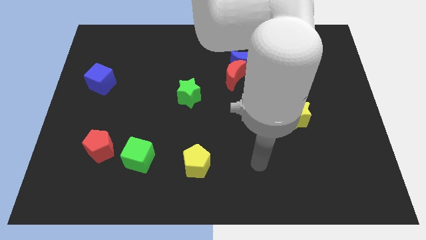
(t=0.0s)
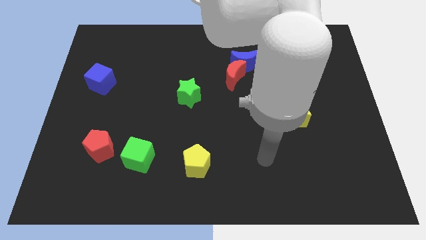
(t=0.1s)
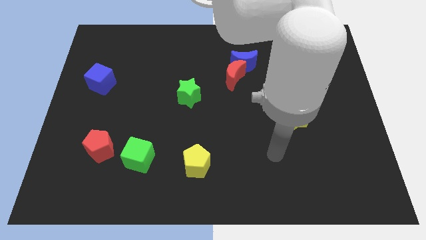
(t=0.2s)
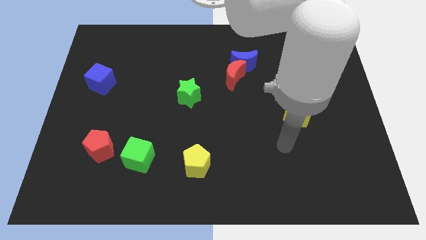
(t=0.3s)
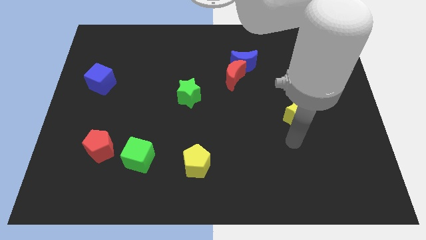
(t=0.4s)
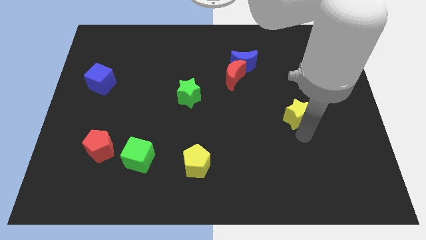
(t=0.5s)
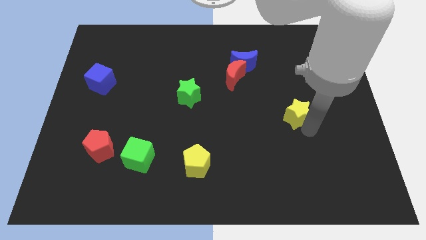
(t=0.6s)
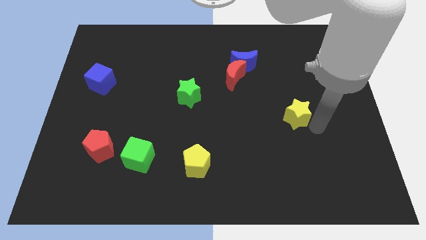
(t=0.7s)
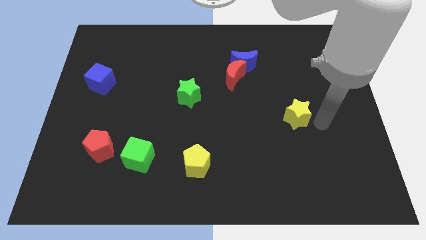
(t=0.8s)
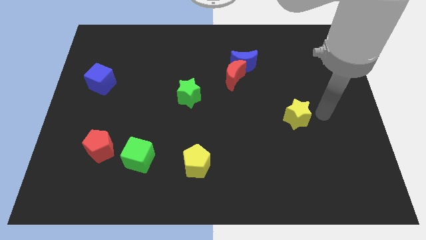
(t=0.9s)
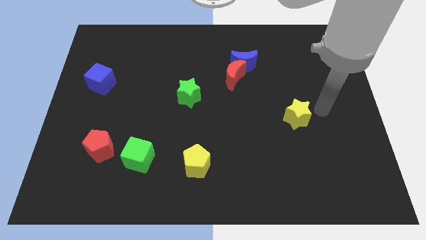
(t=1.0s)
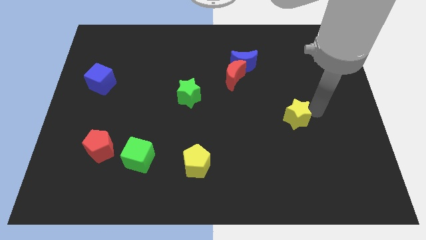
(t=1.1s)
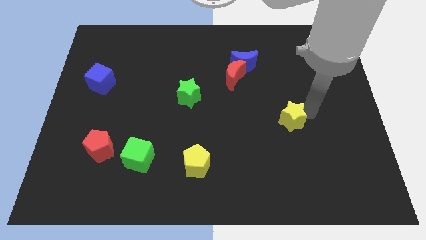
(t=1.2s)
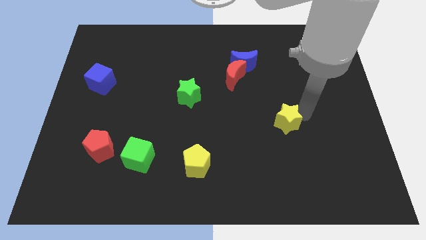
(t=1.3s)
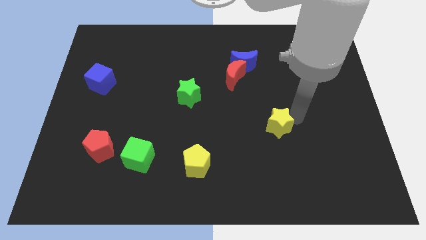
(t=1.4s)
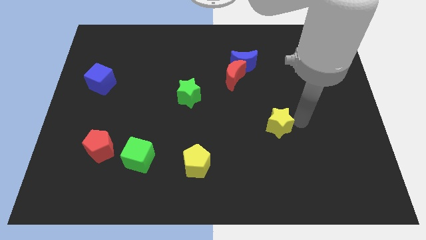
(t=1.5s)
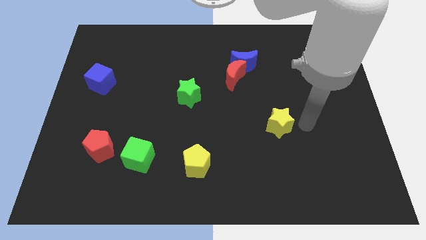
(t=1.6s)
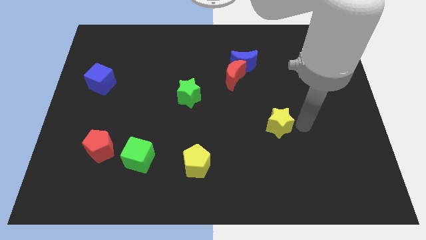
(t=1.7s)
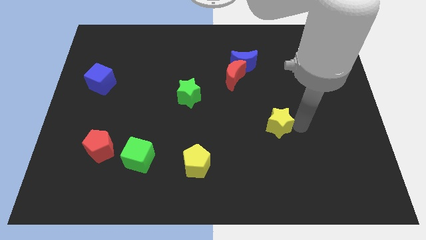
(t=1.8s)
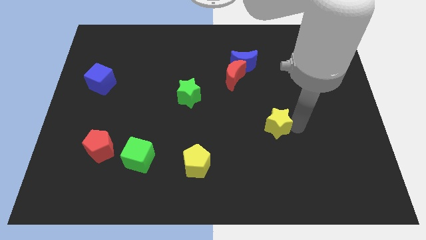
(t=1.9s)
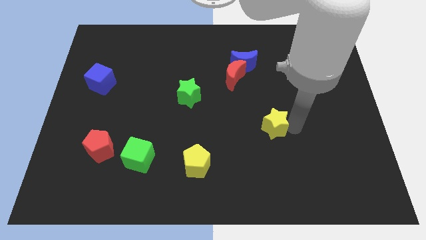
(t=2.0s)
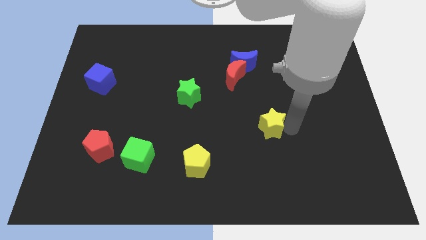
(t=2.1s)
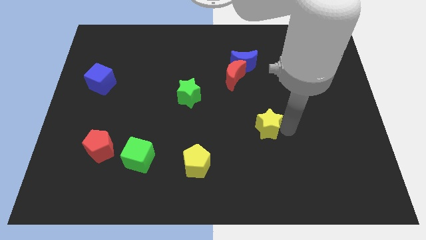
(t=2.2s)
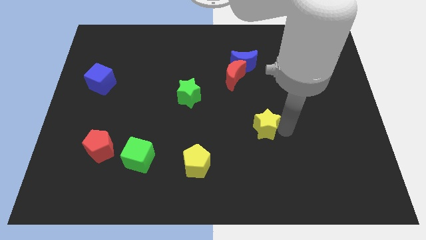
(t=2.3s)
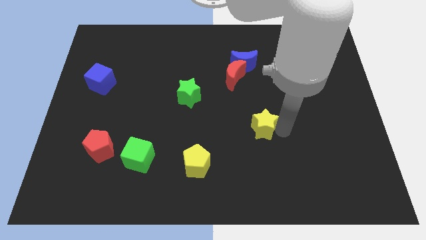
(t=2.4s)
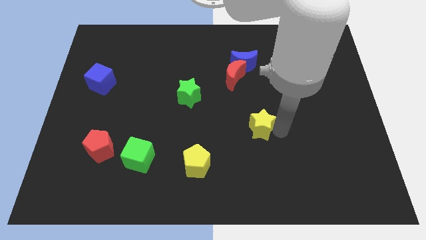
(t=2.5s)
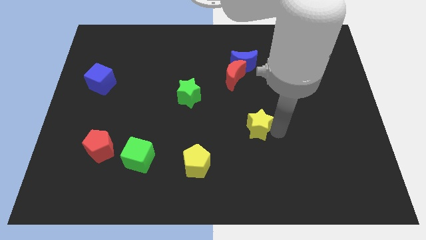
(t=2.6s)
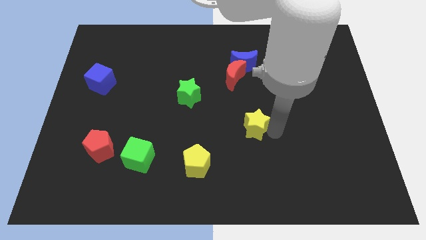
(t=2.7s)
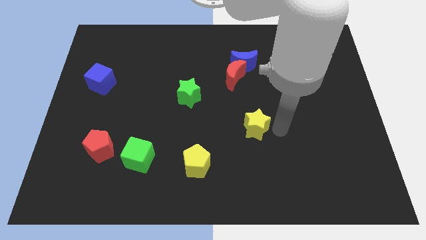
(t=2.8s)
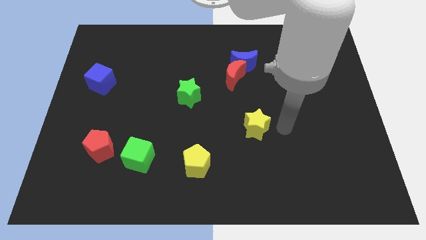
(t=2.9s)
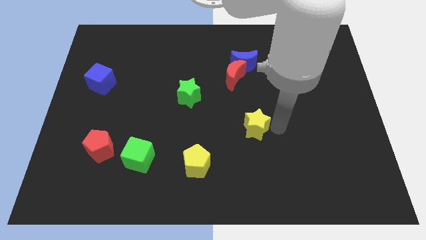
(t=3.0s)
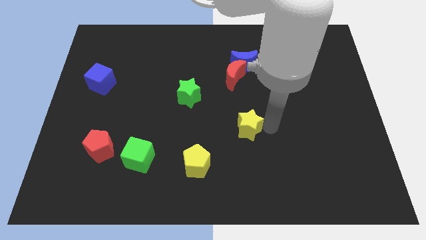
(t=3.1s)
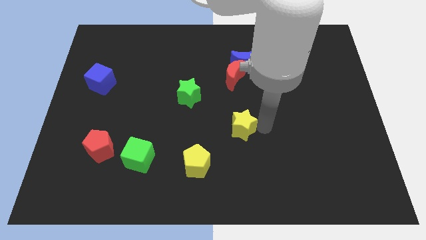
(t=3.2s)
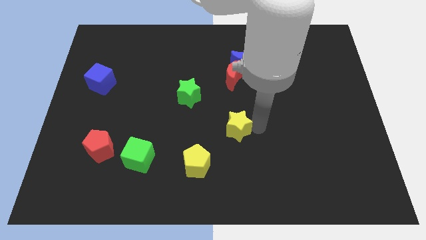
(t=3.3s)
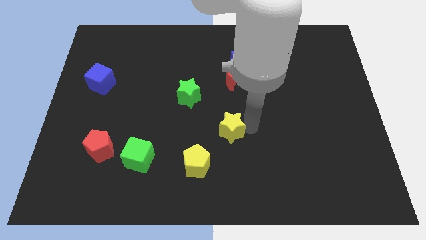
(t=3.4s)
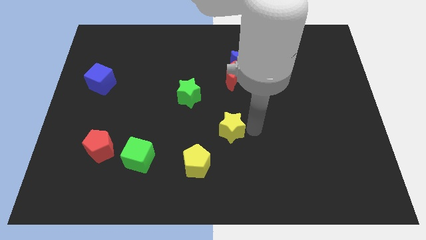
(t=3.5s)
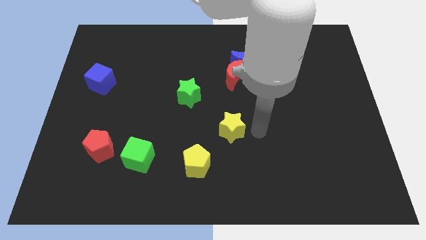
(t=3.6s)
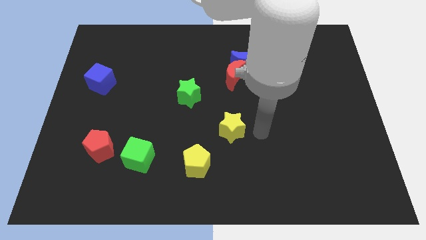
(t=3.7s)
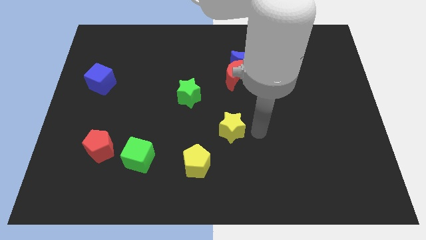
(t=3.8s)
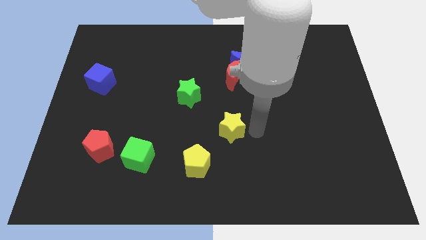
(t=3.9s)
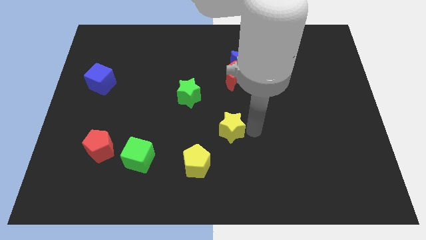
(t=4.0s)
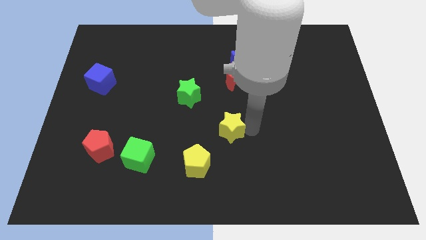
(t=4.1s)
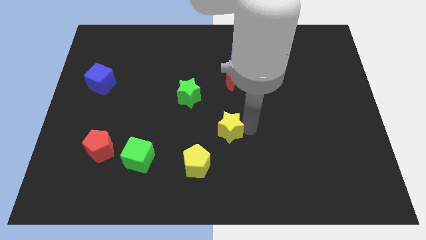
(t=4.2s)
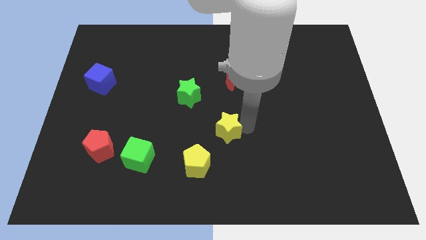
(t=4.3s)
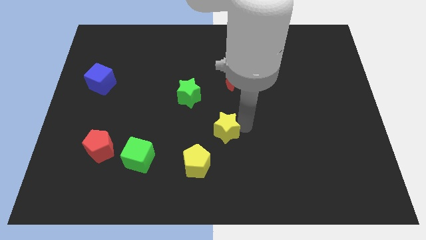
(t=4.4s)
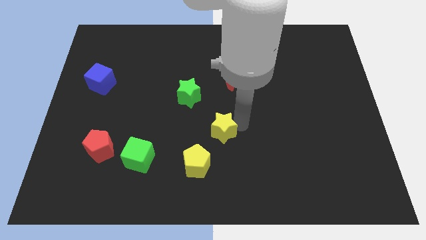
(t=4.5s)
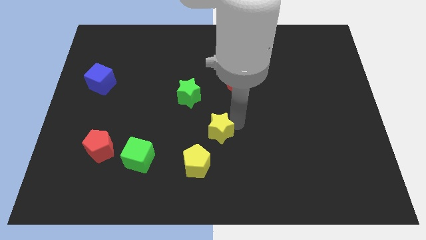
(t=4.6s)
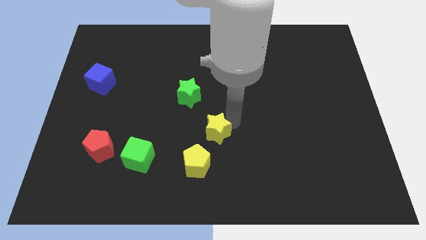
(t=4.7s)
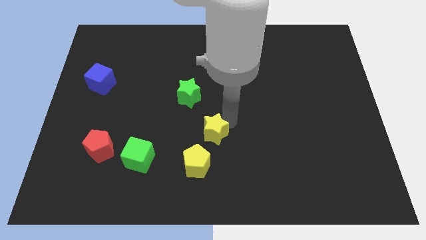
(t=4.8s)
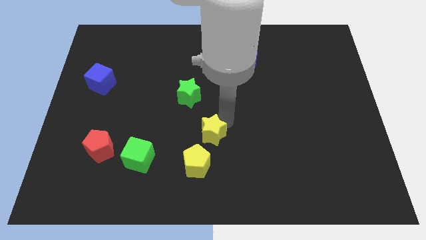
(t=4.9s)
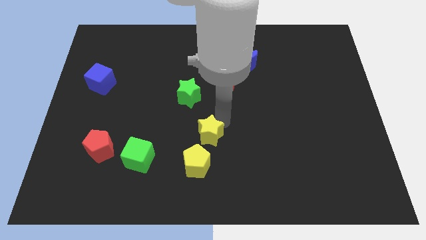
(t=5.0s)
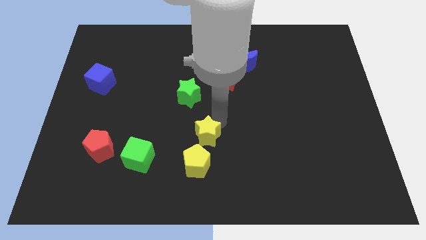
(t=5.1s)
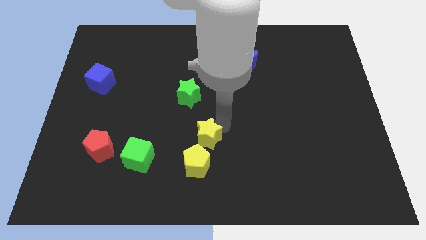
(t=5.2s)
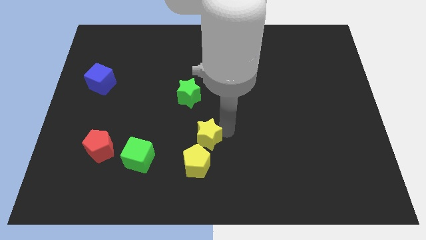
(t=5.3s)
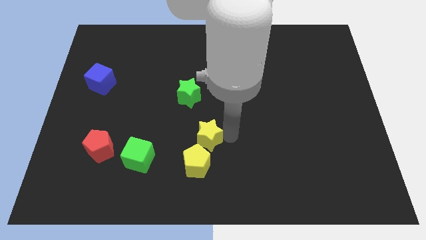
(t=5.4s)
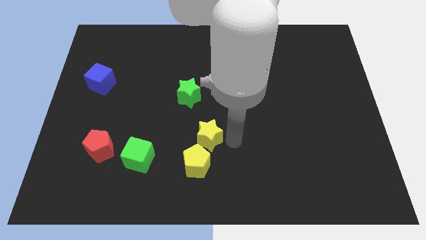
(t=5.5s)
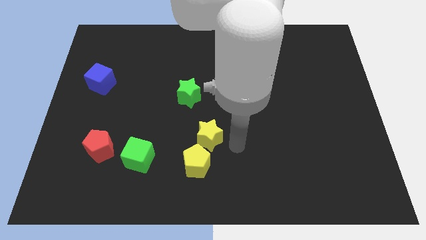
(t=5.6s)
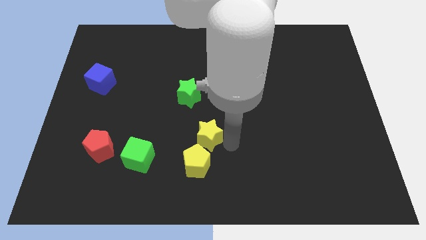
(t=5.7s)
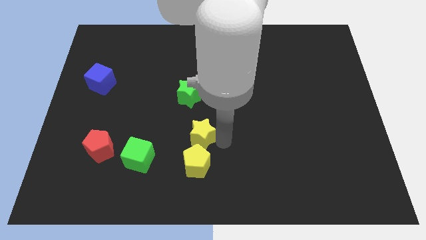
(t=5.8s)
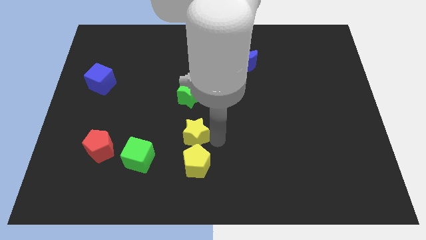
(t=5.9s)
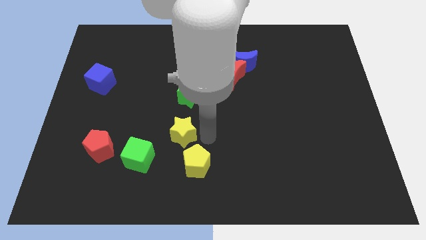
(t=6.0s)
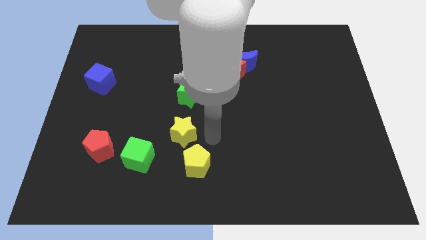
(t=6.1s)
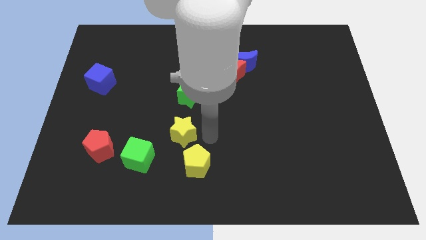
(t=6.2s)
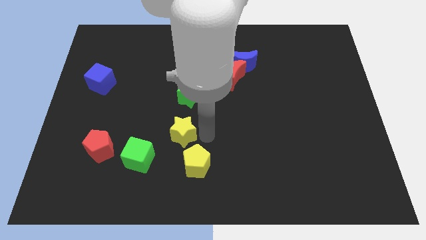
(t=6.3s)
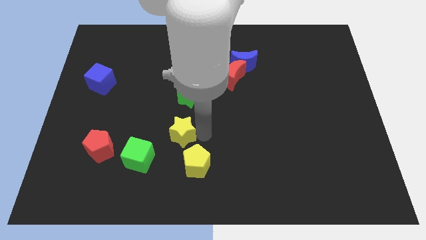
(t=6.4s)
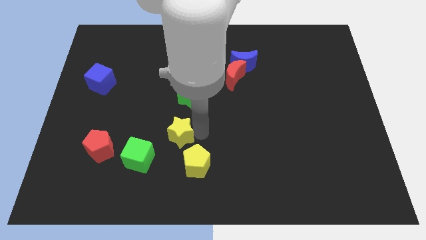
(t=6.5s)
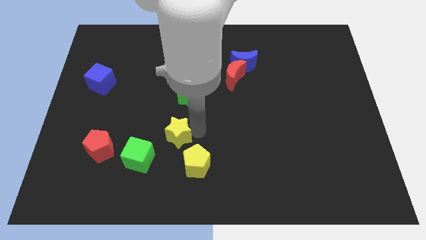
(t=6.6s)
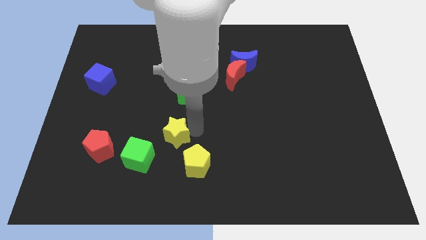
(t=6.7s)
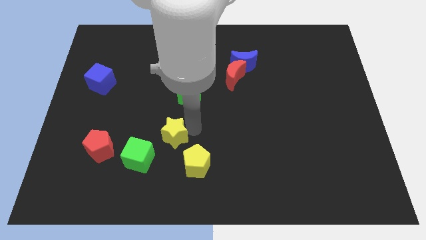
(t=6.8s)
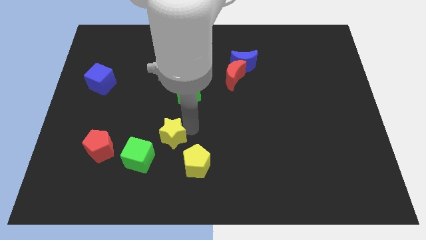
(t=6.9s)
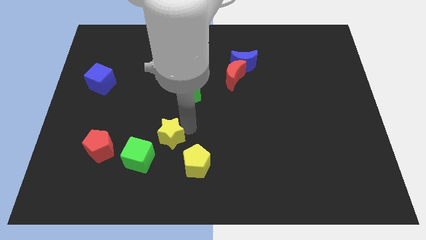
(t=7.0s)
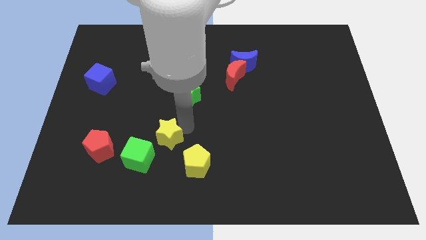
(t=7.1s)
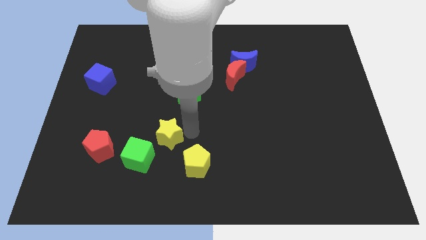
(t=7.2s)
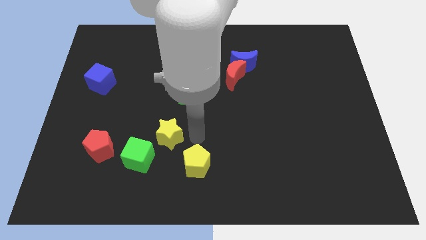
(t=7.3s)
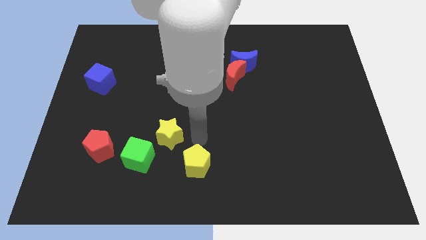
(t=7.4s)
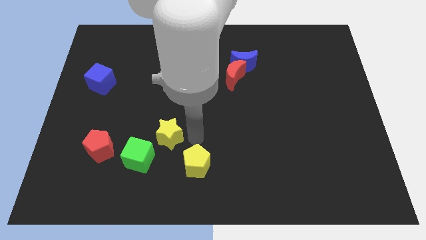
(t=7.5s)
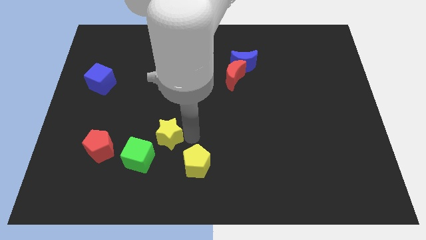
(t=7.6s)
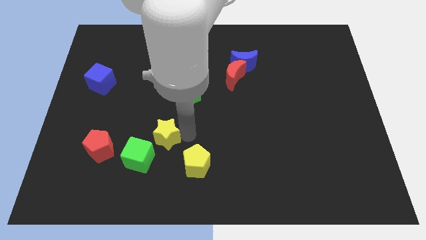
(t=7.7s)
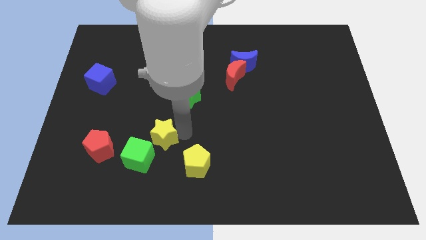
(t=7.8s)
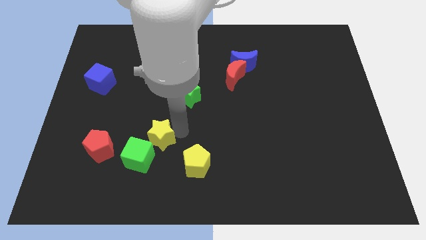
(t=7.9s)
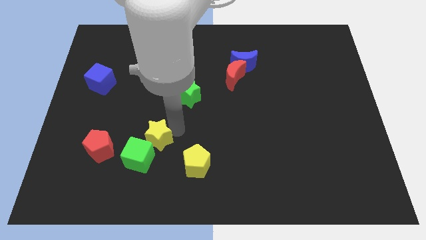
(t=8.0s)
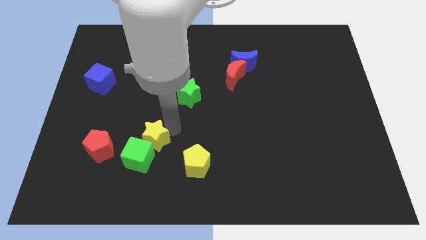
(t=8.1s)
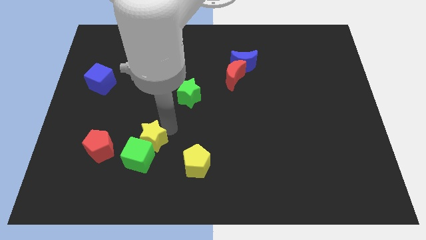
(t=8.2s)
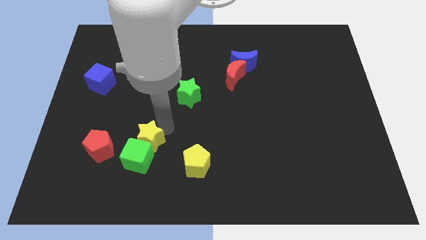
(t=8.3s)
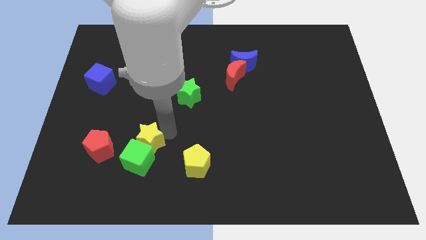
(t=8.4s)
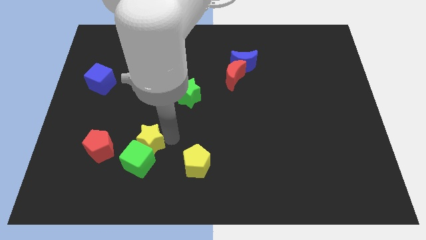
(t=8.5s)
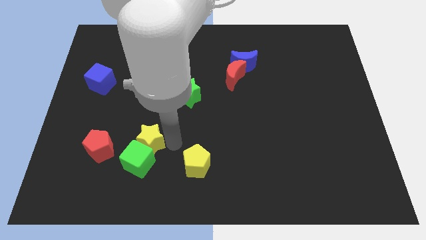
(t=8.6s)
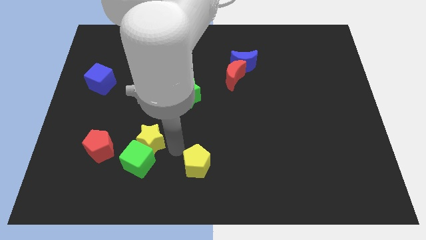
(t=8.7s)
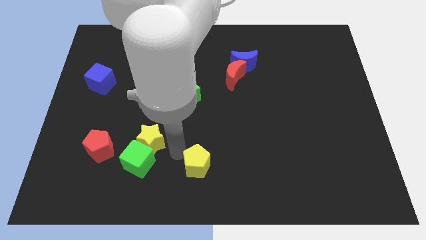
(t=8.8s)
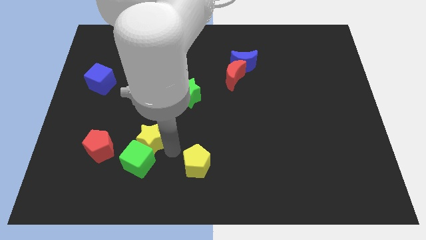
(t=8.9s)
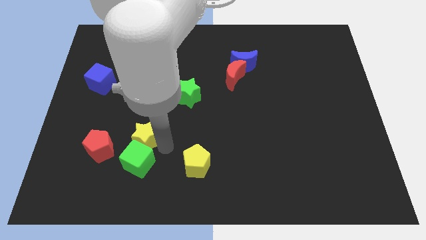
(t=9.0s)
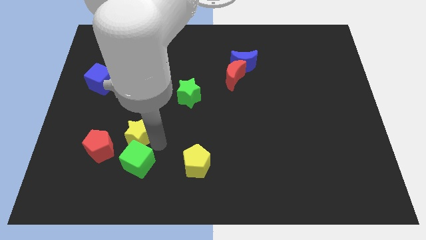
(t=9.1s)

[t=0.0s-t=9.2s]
put the yellow star to the top right of the red pentagon
